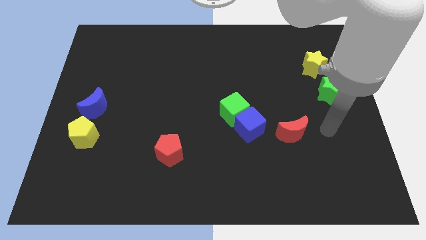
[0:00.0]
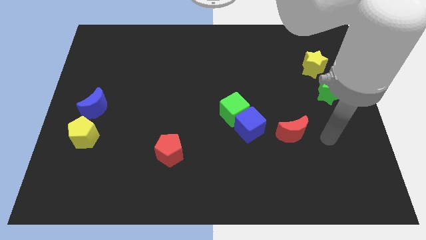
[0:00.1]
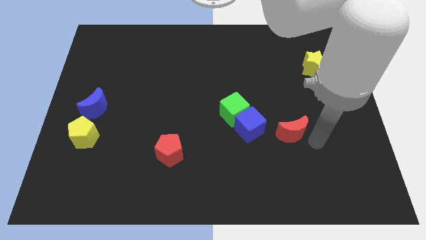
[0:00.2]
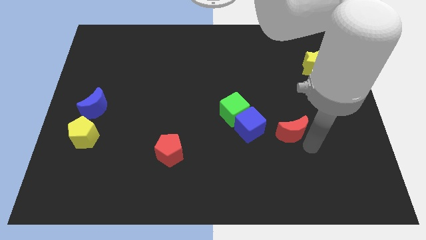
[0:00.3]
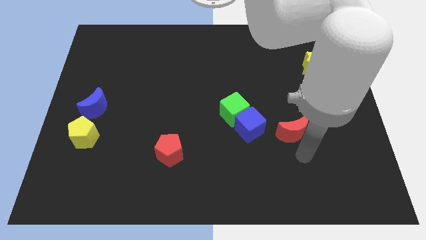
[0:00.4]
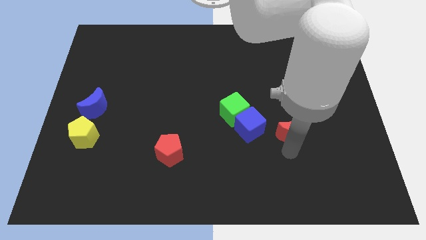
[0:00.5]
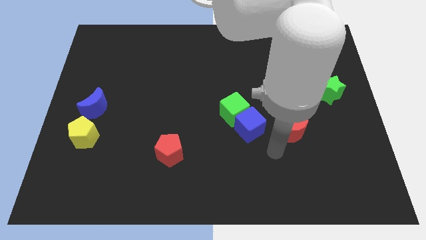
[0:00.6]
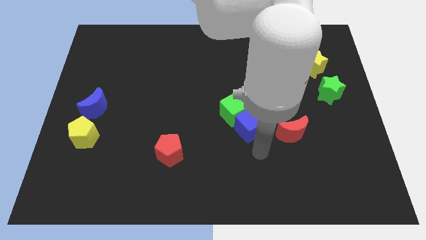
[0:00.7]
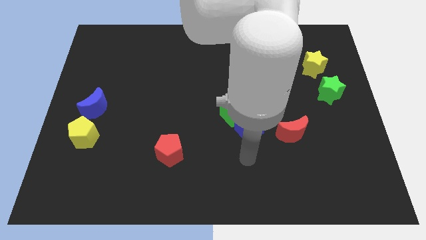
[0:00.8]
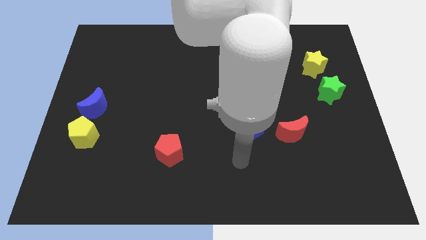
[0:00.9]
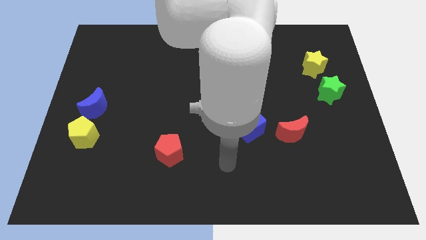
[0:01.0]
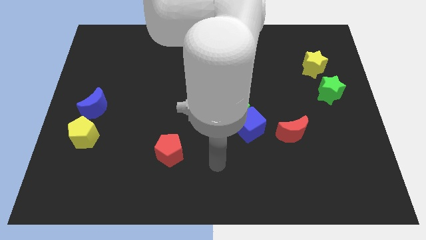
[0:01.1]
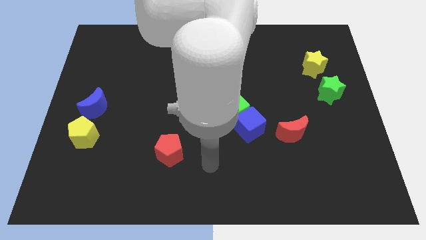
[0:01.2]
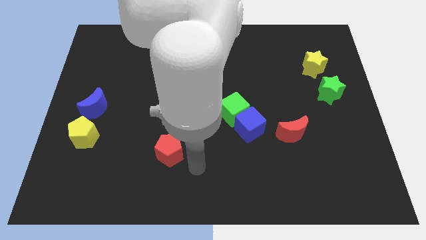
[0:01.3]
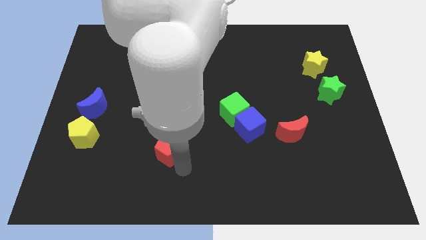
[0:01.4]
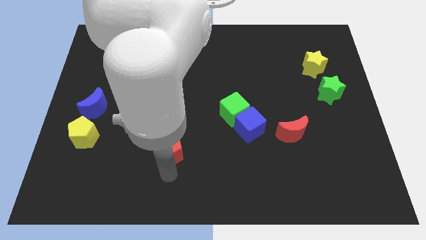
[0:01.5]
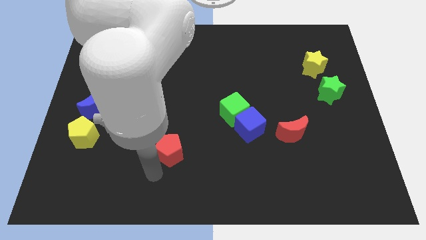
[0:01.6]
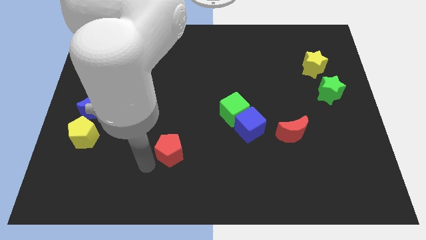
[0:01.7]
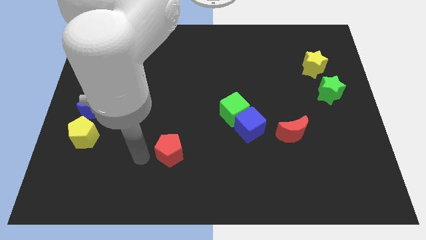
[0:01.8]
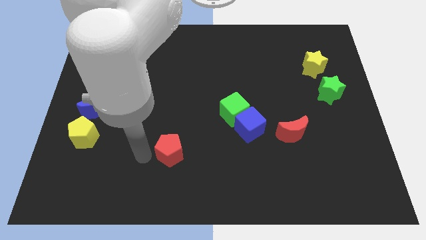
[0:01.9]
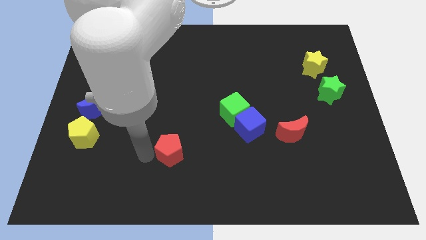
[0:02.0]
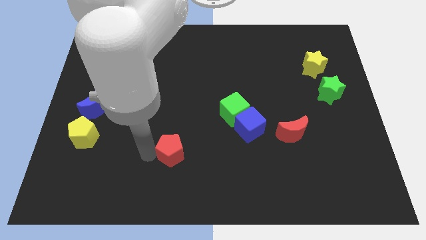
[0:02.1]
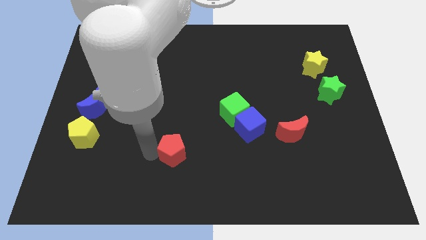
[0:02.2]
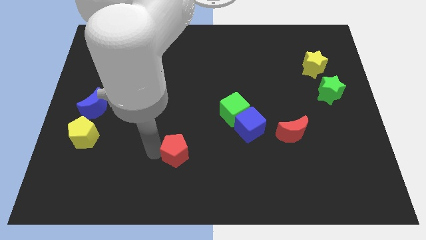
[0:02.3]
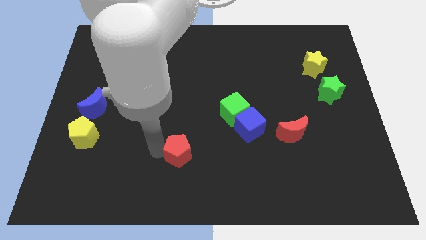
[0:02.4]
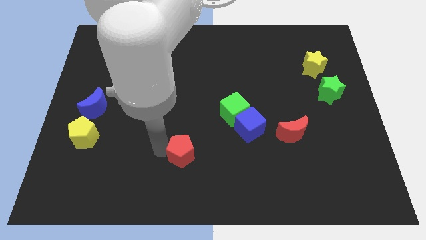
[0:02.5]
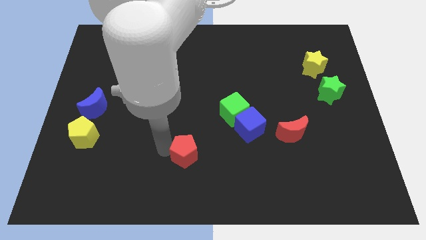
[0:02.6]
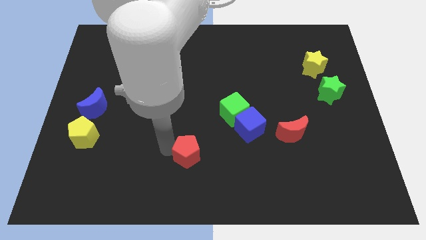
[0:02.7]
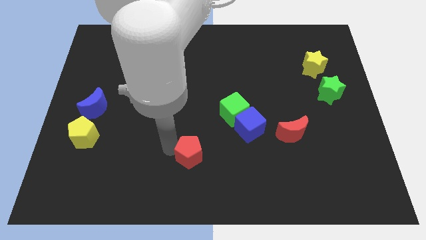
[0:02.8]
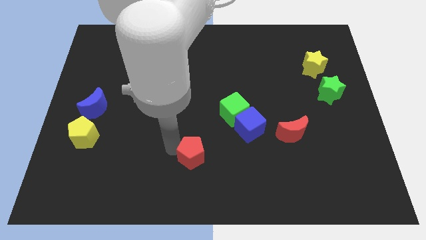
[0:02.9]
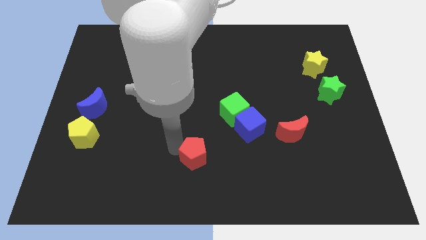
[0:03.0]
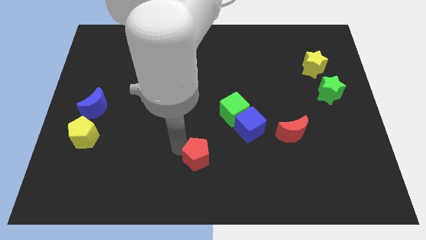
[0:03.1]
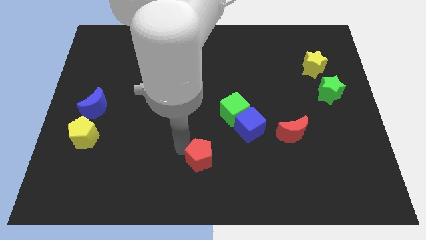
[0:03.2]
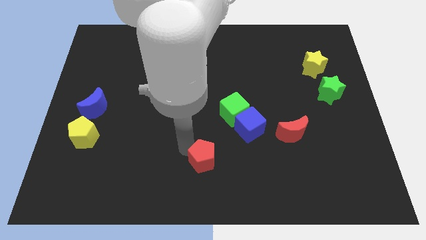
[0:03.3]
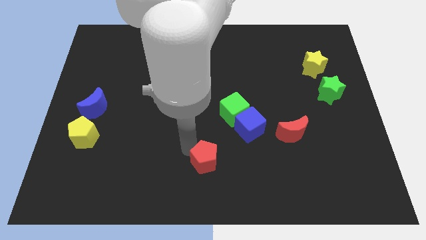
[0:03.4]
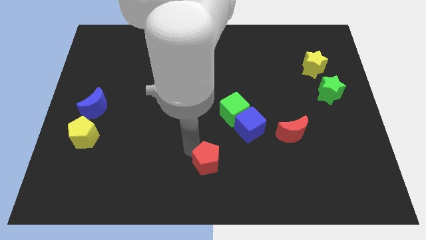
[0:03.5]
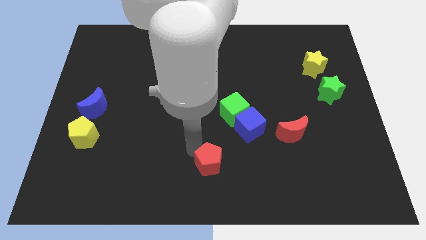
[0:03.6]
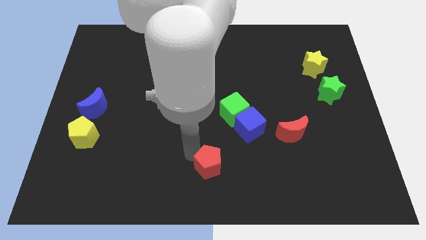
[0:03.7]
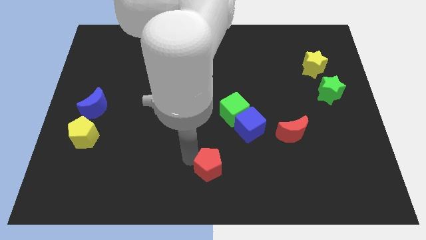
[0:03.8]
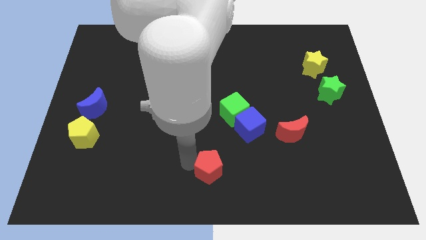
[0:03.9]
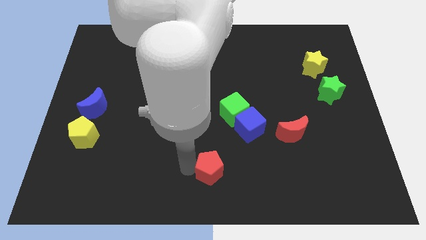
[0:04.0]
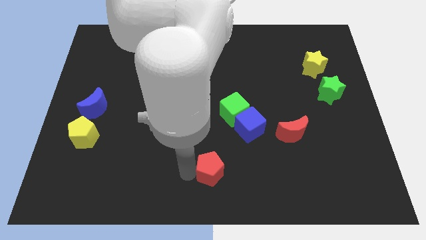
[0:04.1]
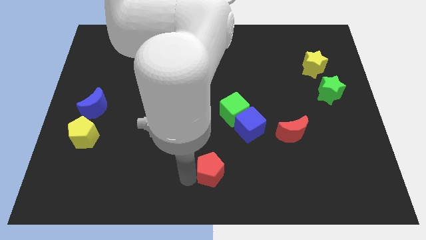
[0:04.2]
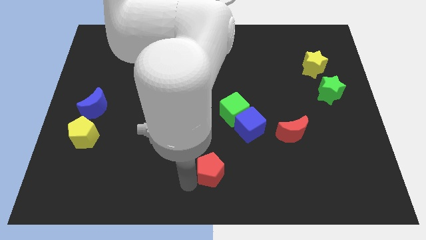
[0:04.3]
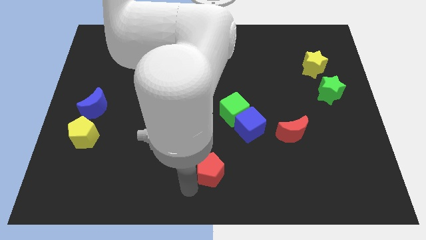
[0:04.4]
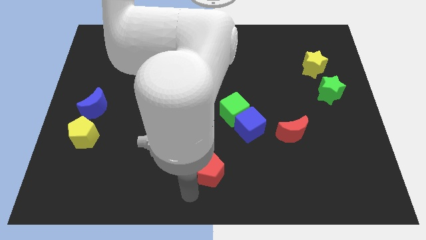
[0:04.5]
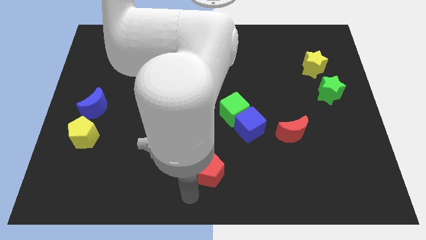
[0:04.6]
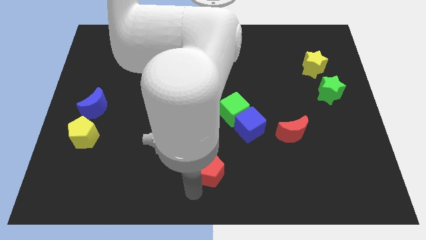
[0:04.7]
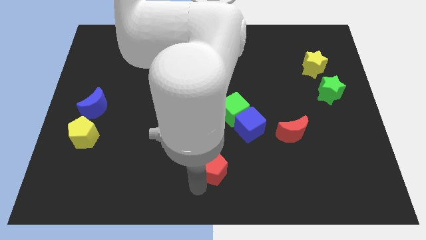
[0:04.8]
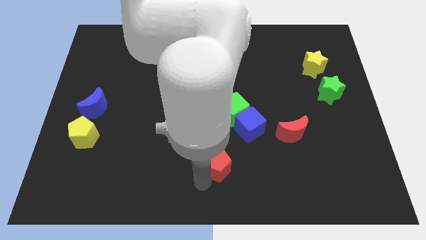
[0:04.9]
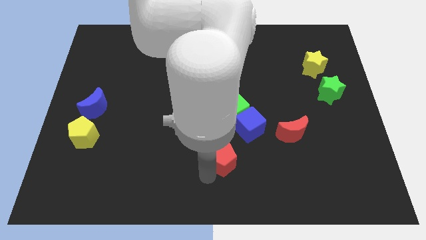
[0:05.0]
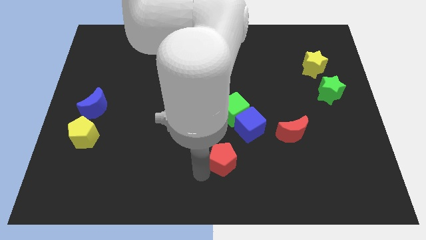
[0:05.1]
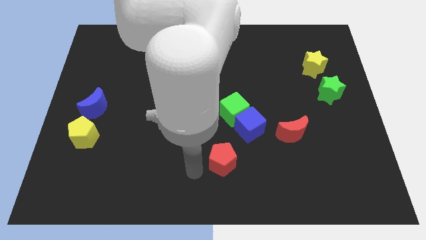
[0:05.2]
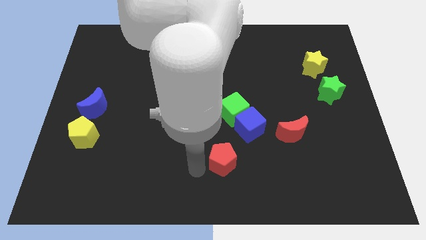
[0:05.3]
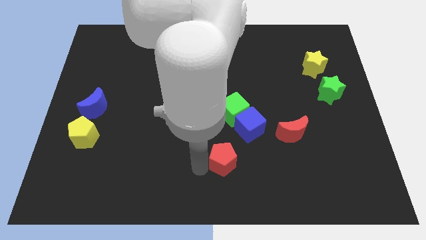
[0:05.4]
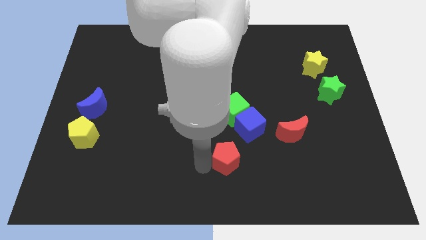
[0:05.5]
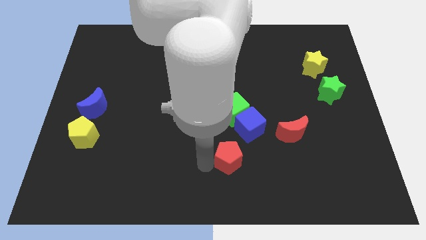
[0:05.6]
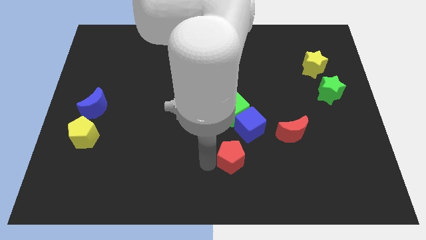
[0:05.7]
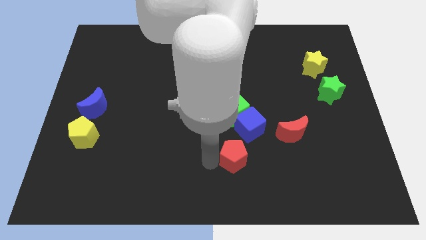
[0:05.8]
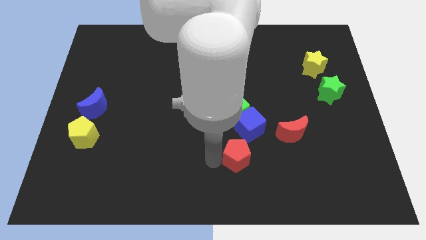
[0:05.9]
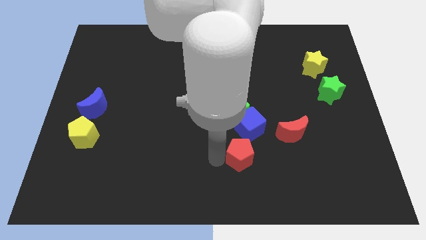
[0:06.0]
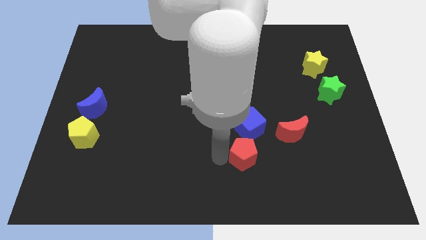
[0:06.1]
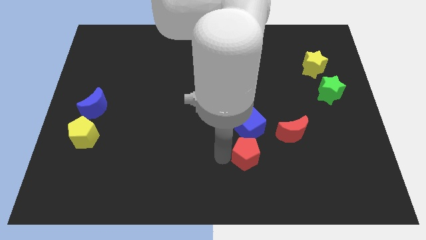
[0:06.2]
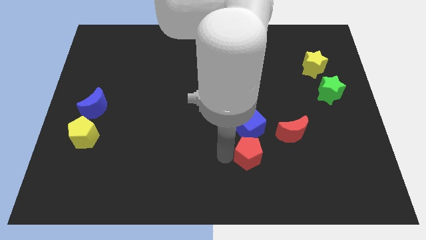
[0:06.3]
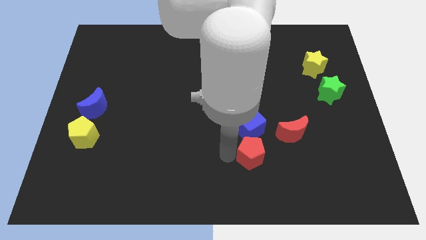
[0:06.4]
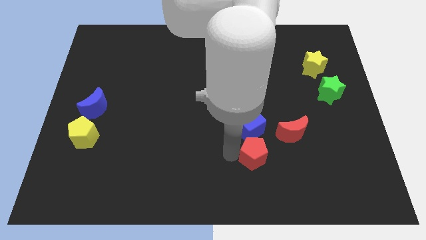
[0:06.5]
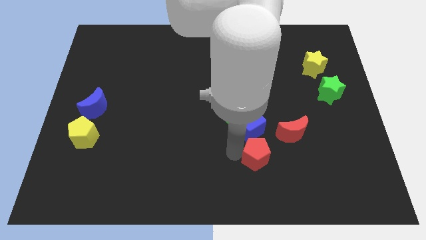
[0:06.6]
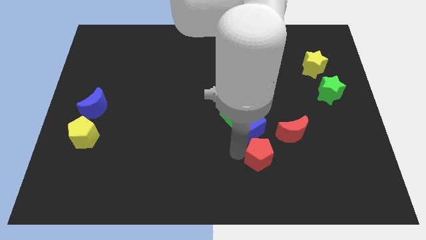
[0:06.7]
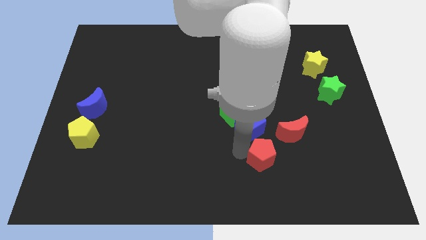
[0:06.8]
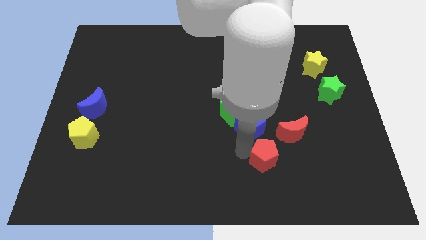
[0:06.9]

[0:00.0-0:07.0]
push the red pentagon to the right

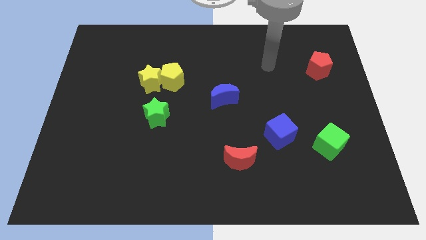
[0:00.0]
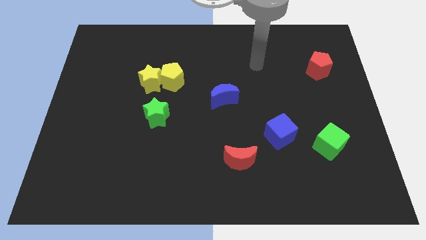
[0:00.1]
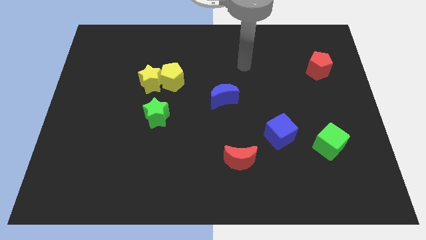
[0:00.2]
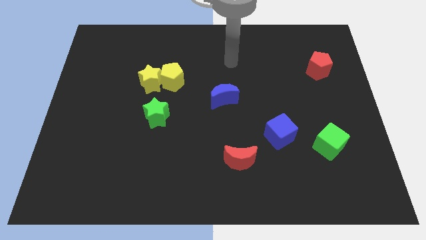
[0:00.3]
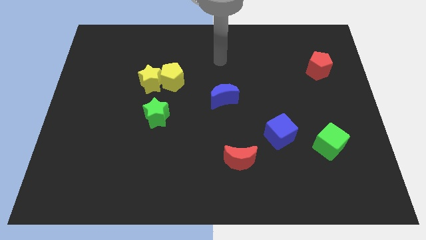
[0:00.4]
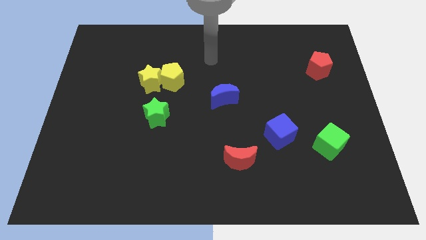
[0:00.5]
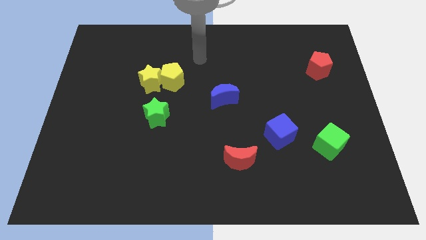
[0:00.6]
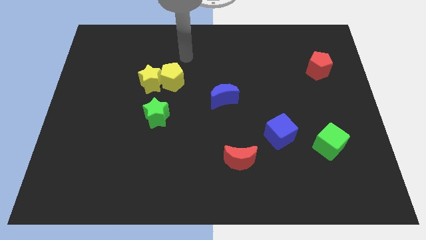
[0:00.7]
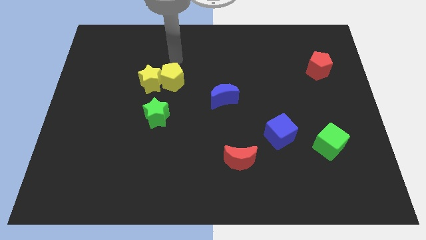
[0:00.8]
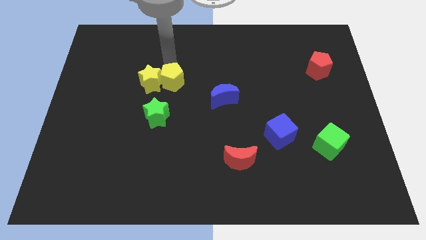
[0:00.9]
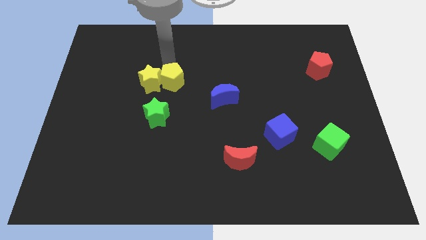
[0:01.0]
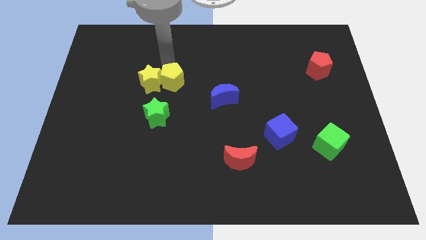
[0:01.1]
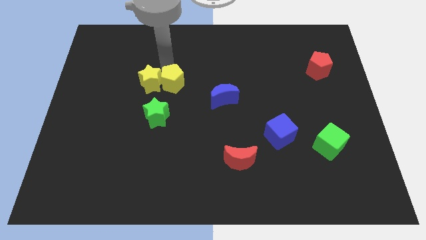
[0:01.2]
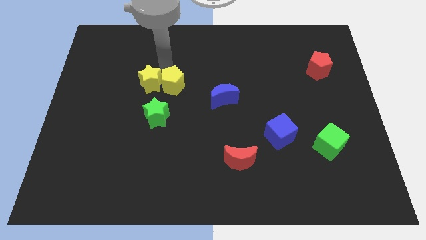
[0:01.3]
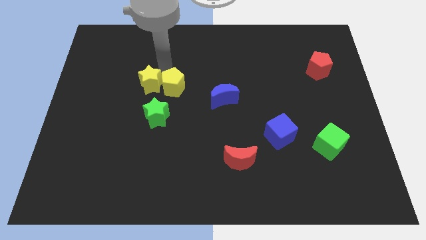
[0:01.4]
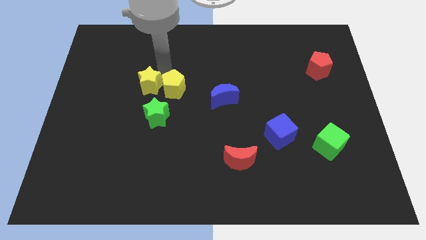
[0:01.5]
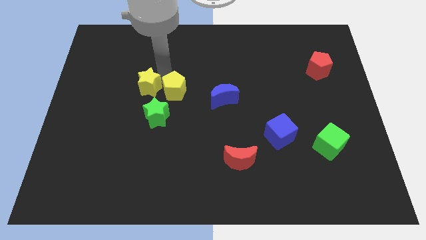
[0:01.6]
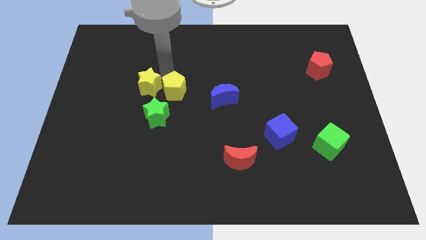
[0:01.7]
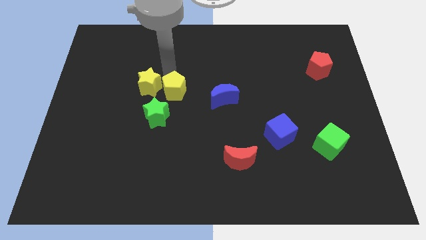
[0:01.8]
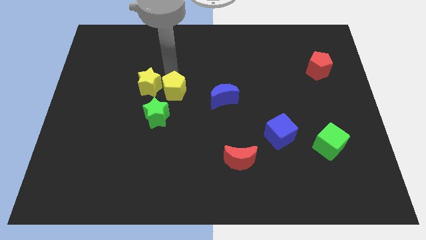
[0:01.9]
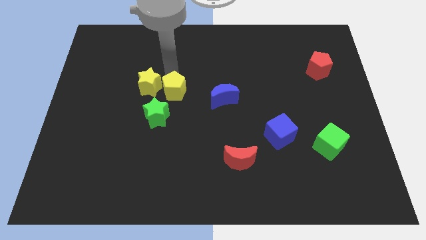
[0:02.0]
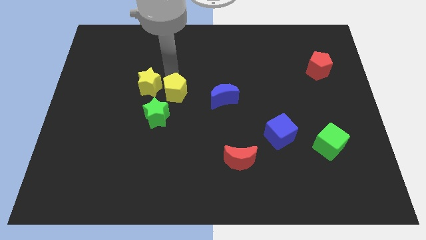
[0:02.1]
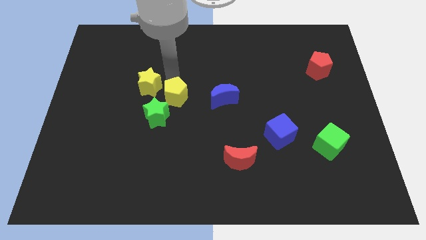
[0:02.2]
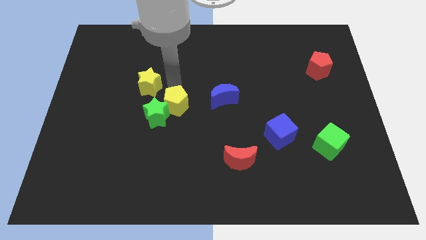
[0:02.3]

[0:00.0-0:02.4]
slightly slide the yellow pentagon downwards
